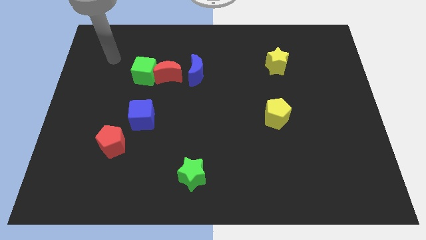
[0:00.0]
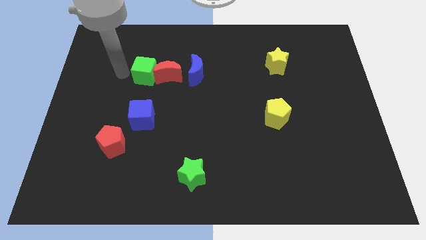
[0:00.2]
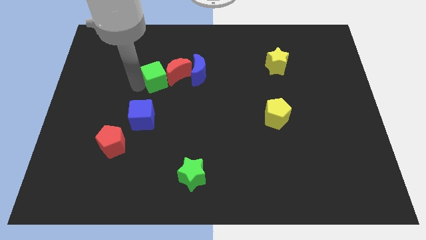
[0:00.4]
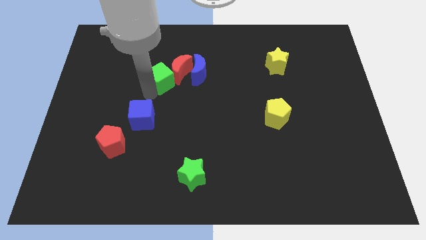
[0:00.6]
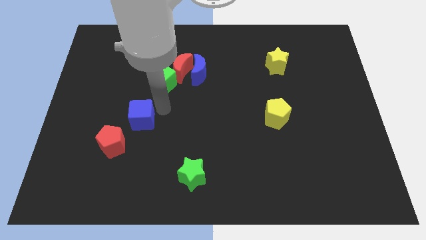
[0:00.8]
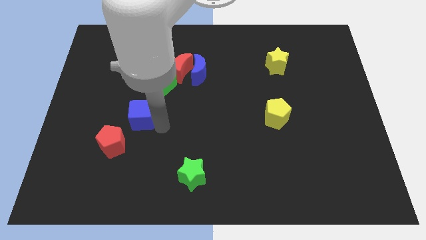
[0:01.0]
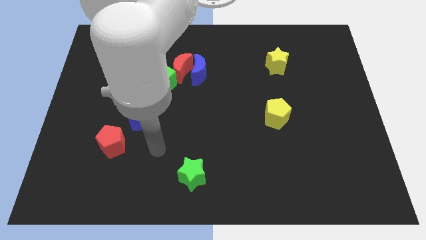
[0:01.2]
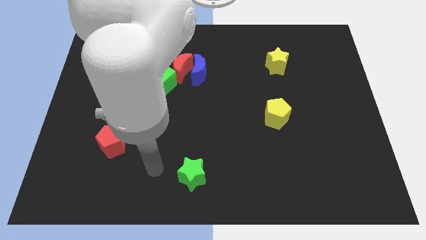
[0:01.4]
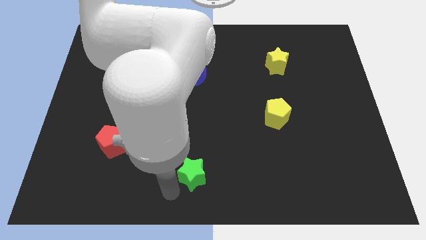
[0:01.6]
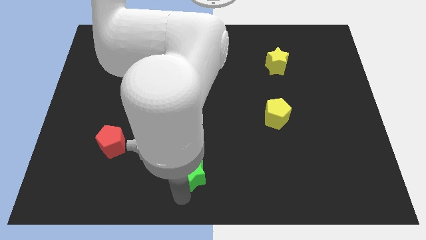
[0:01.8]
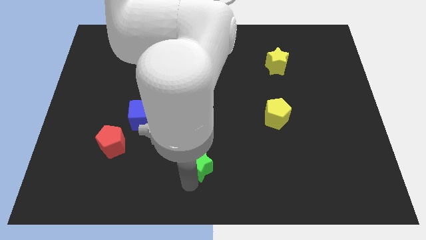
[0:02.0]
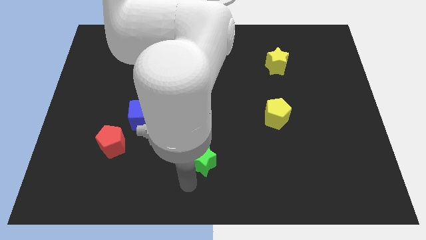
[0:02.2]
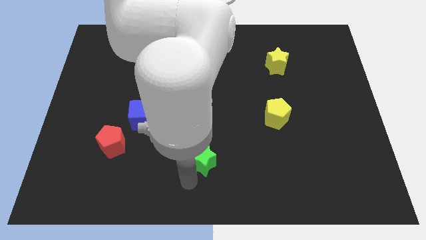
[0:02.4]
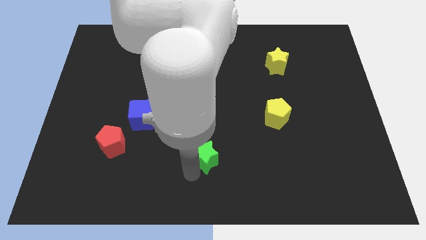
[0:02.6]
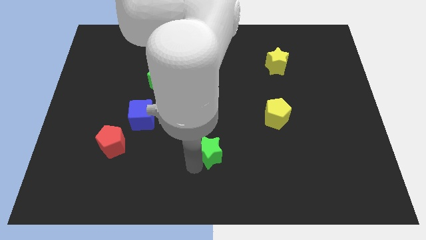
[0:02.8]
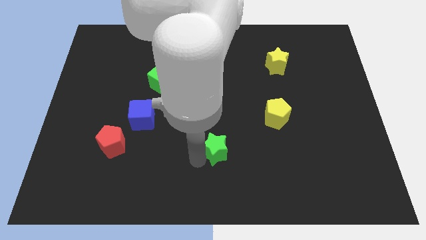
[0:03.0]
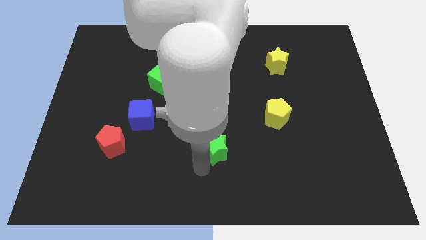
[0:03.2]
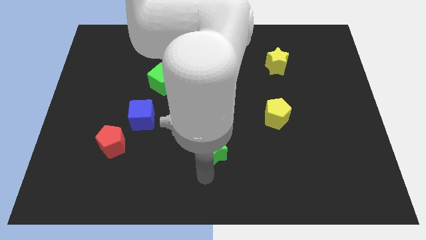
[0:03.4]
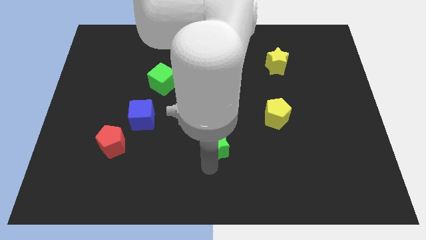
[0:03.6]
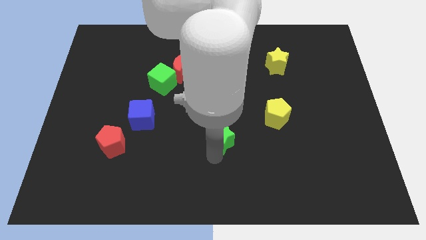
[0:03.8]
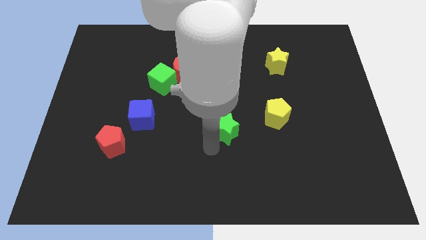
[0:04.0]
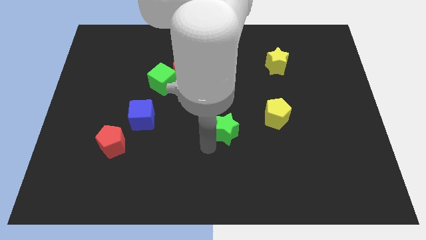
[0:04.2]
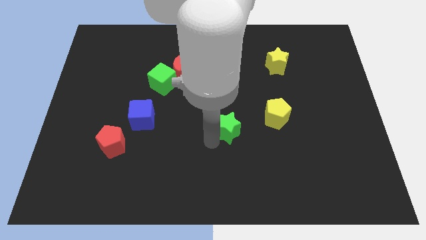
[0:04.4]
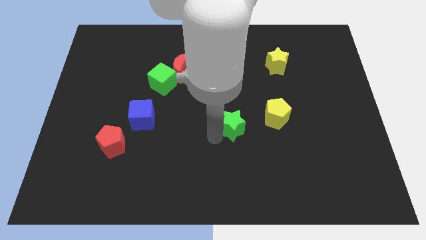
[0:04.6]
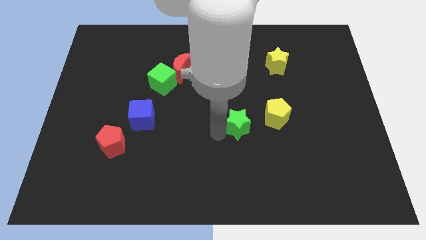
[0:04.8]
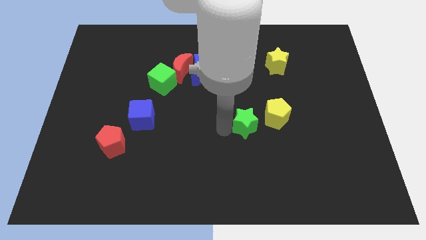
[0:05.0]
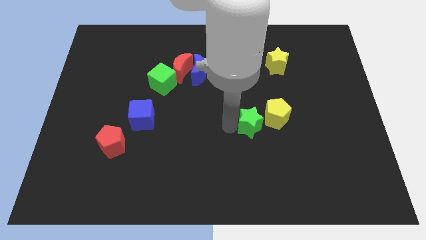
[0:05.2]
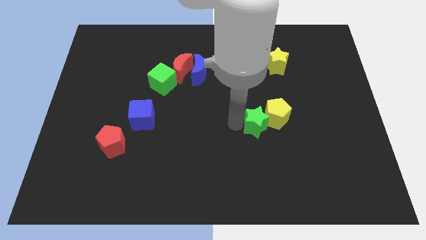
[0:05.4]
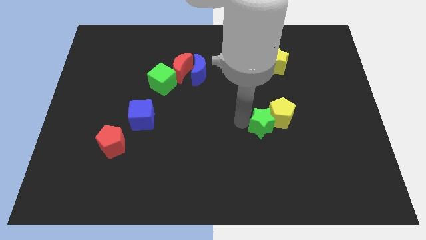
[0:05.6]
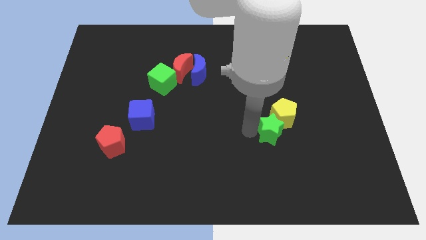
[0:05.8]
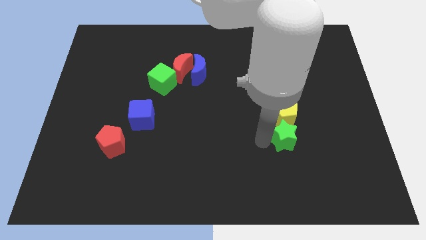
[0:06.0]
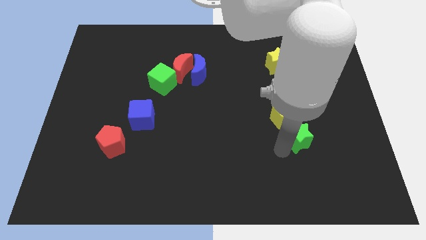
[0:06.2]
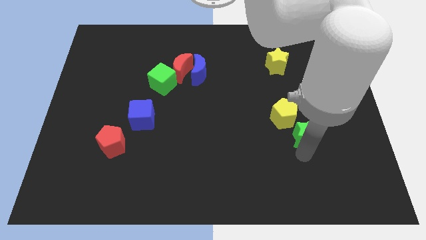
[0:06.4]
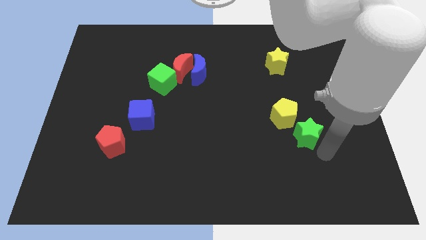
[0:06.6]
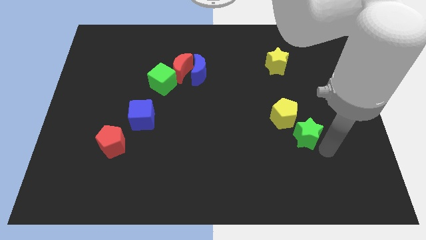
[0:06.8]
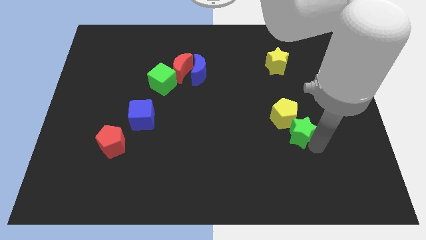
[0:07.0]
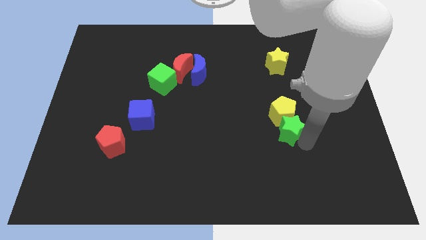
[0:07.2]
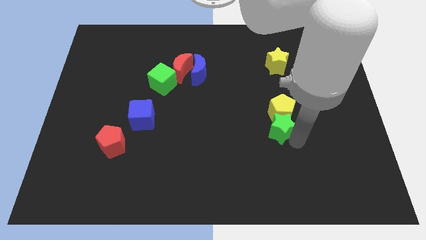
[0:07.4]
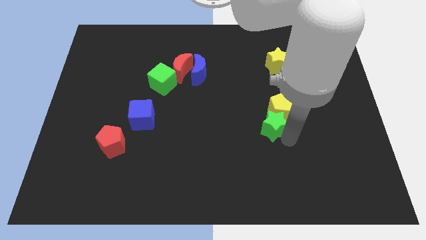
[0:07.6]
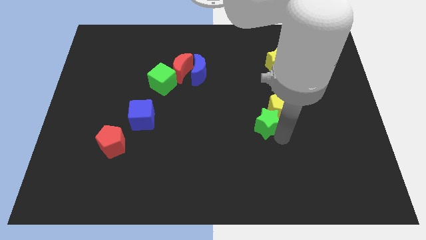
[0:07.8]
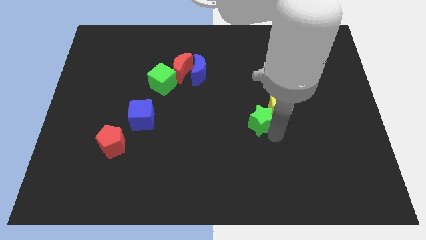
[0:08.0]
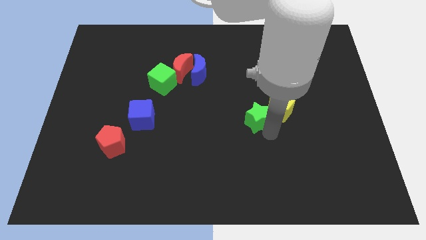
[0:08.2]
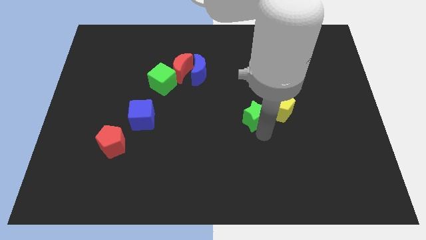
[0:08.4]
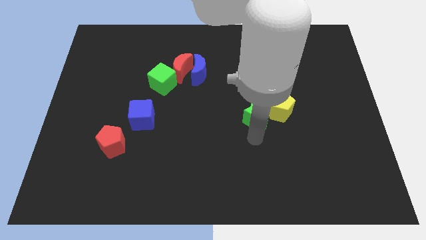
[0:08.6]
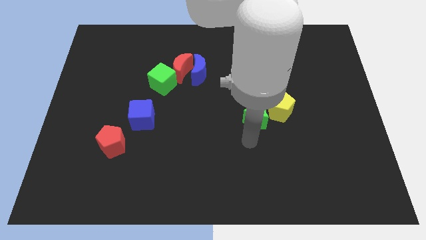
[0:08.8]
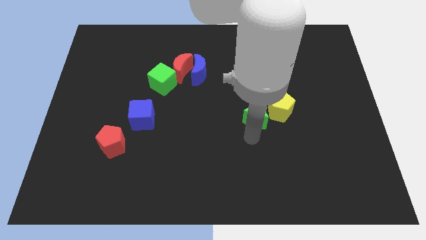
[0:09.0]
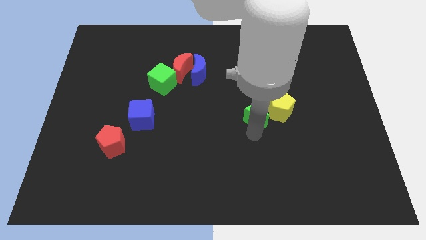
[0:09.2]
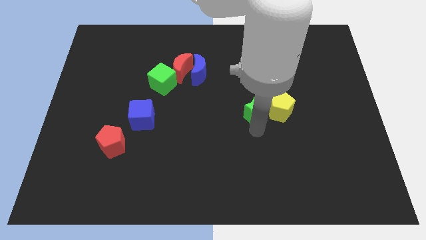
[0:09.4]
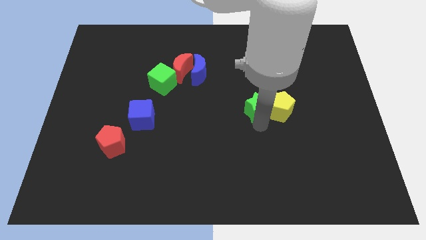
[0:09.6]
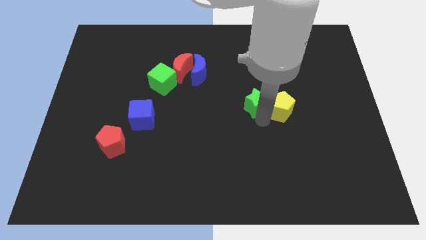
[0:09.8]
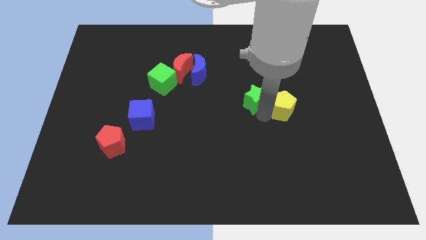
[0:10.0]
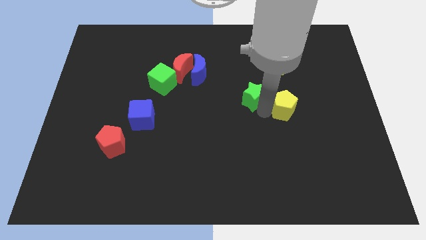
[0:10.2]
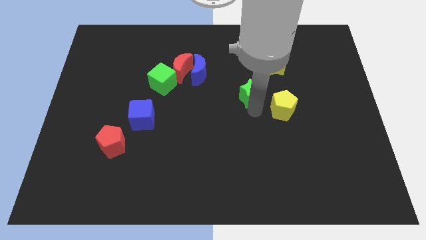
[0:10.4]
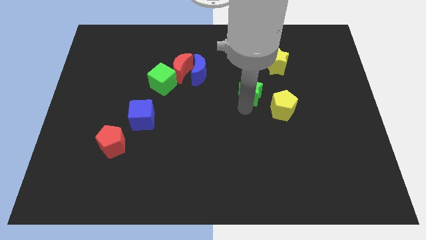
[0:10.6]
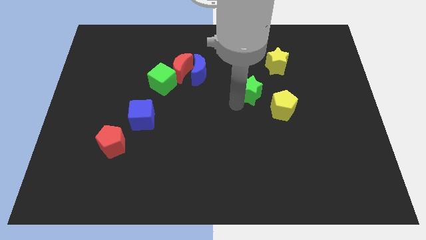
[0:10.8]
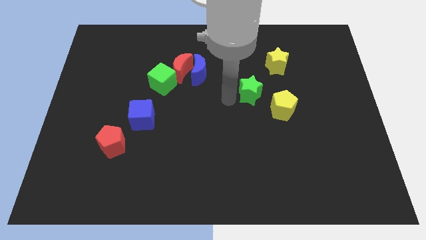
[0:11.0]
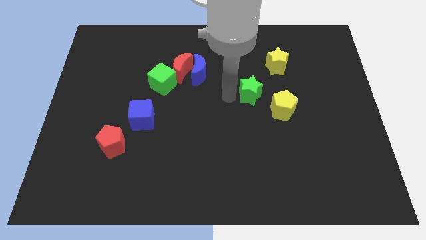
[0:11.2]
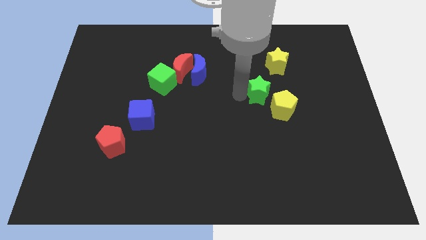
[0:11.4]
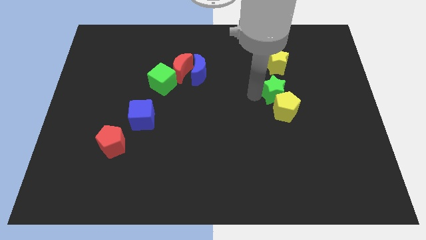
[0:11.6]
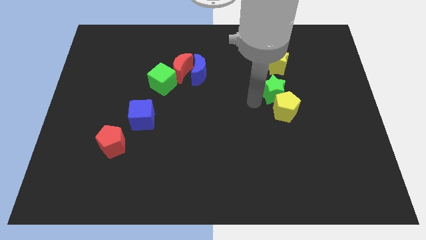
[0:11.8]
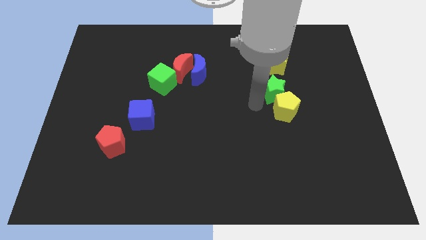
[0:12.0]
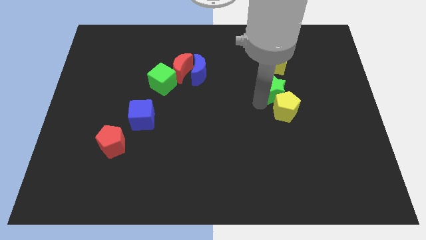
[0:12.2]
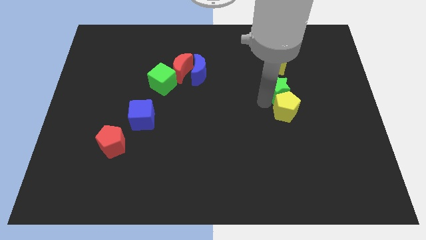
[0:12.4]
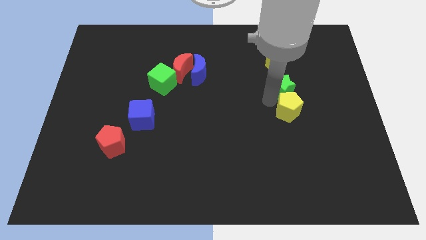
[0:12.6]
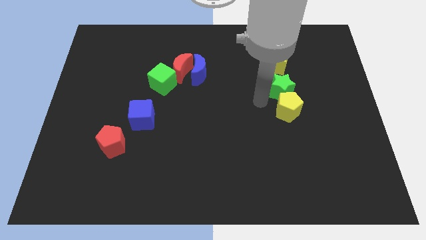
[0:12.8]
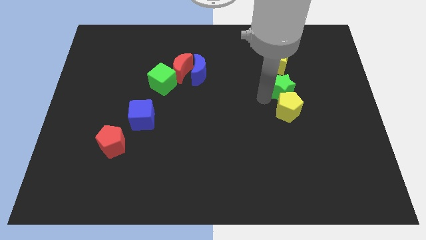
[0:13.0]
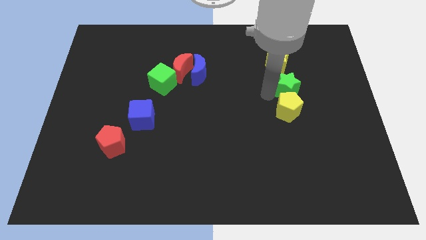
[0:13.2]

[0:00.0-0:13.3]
slide the green star diagonally down and to the right of the yellow star
